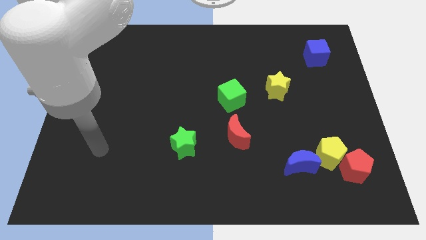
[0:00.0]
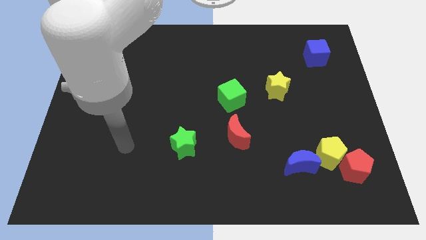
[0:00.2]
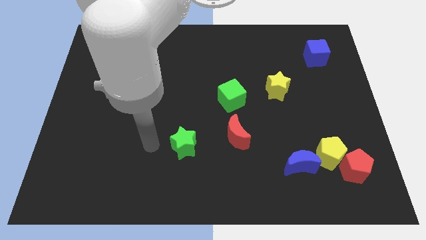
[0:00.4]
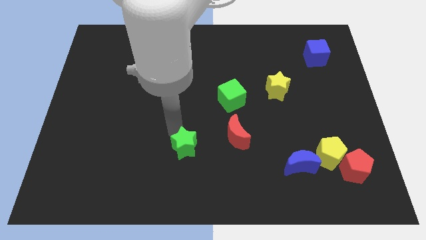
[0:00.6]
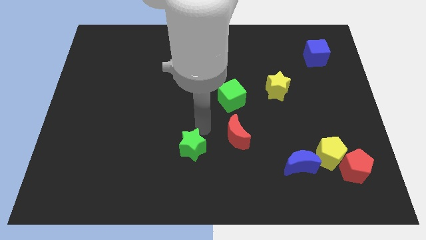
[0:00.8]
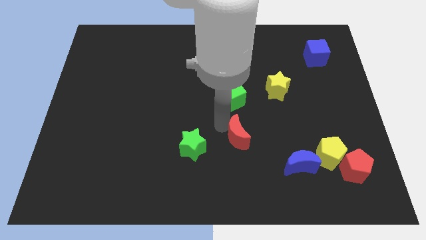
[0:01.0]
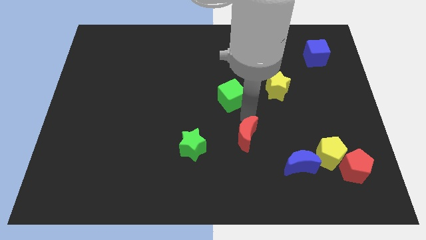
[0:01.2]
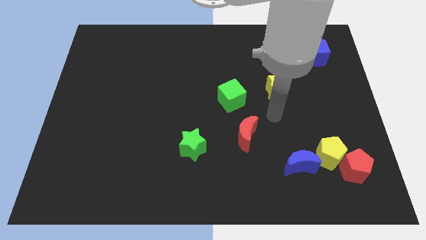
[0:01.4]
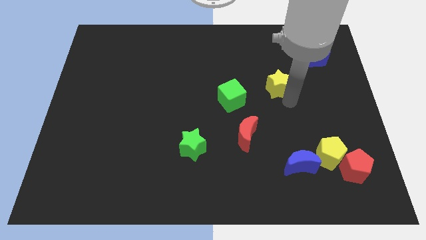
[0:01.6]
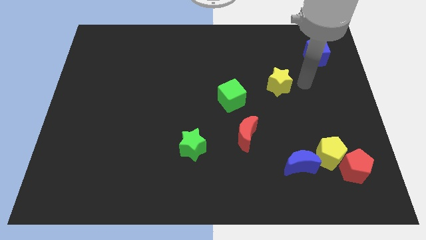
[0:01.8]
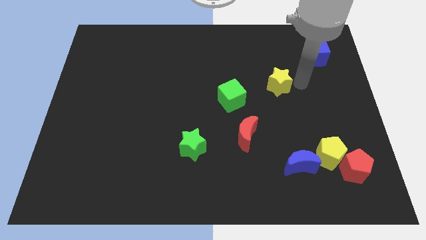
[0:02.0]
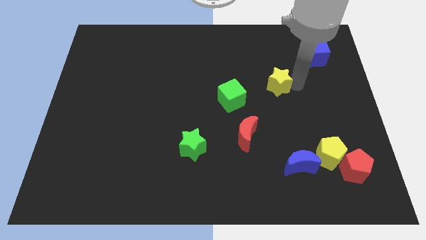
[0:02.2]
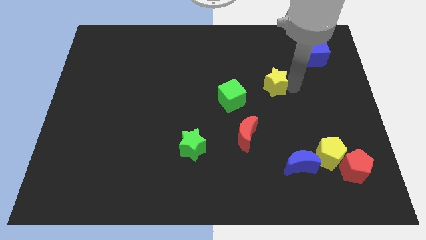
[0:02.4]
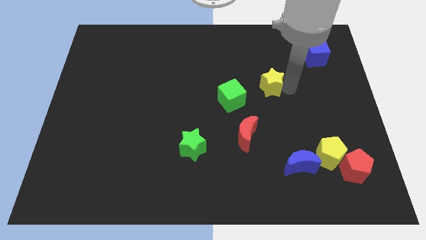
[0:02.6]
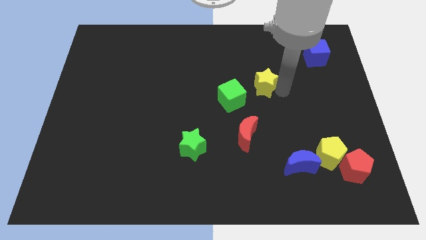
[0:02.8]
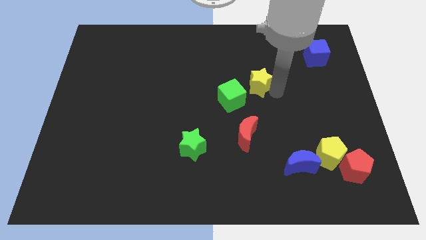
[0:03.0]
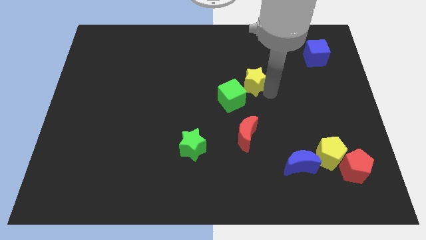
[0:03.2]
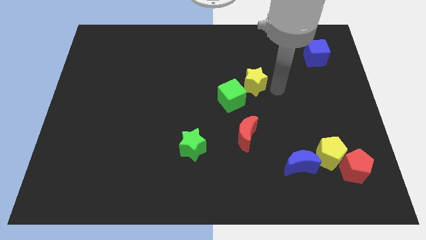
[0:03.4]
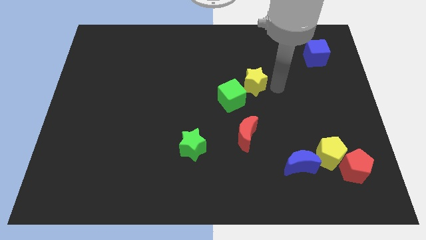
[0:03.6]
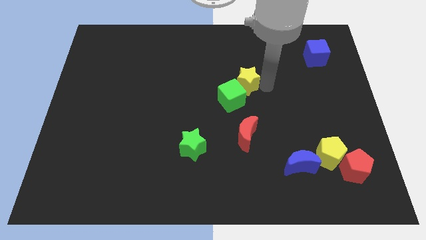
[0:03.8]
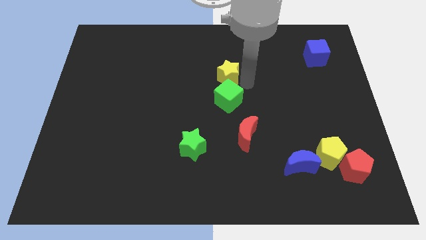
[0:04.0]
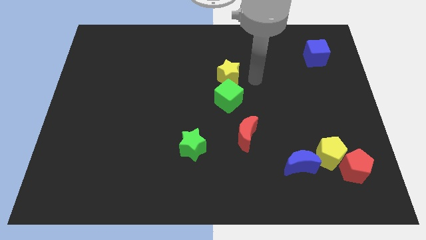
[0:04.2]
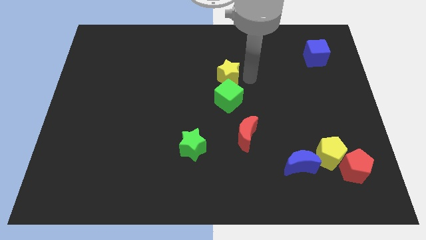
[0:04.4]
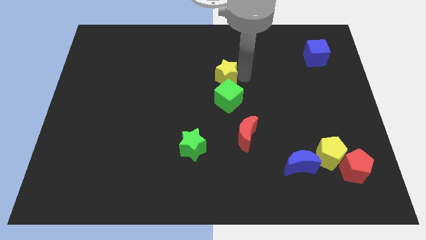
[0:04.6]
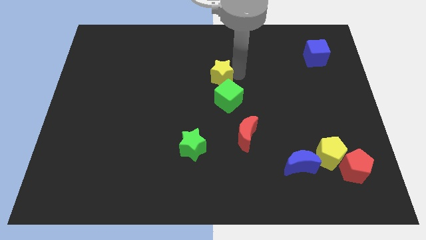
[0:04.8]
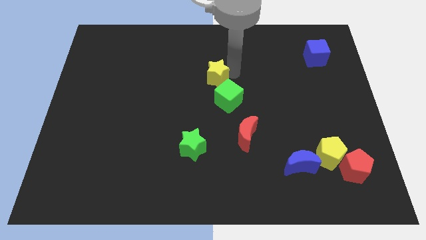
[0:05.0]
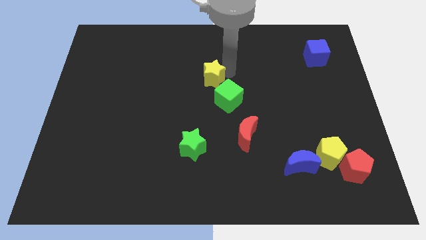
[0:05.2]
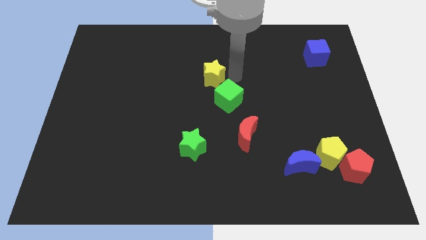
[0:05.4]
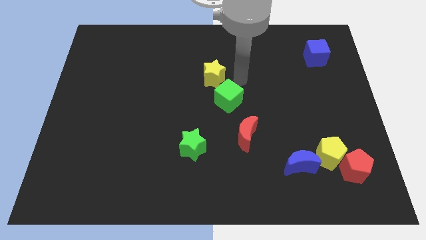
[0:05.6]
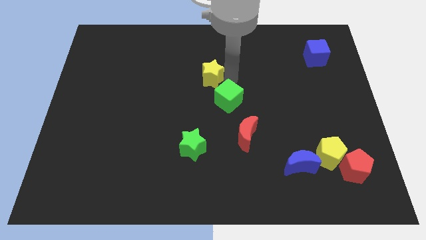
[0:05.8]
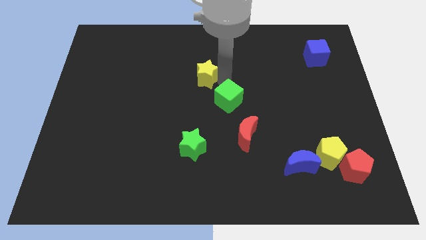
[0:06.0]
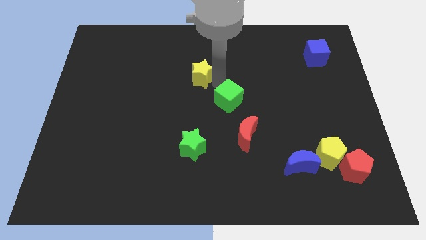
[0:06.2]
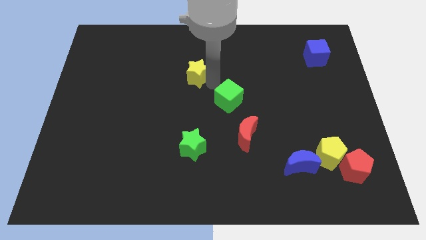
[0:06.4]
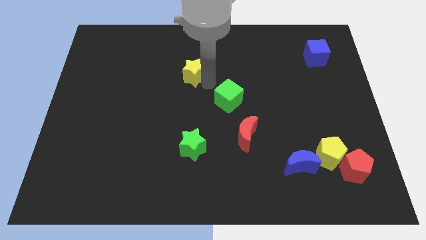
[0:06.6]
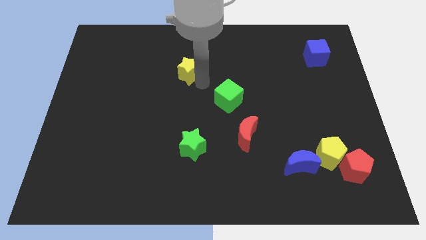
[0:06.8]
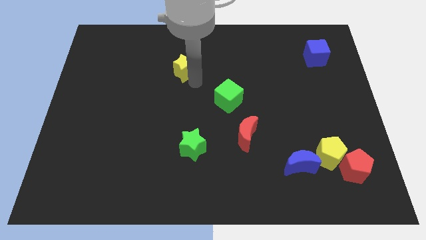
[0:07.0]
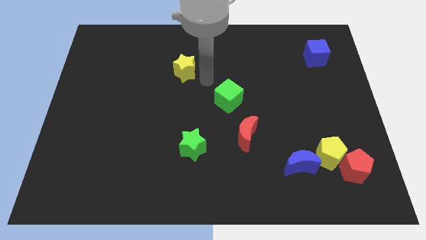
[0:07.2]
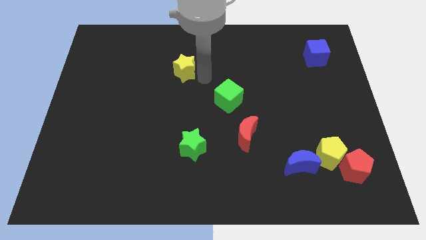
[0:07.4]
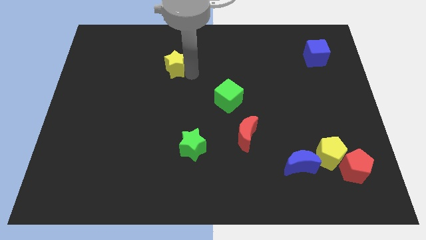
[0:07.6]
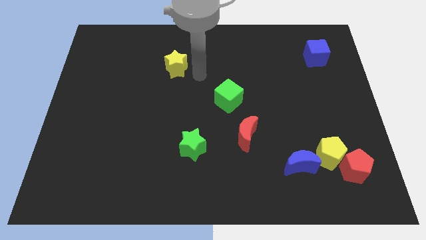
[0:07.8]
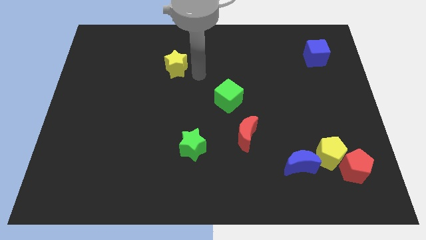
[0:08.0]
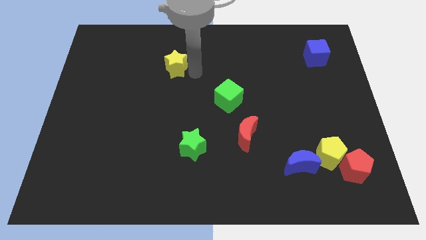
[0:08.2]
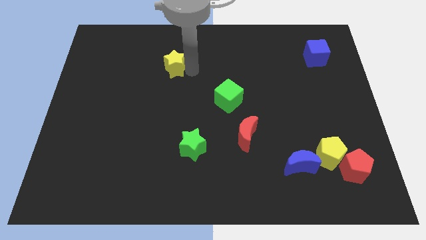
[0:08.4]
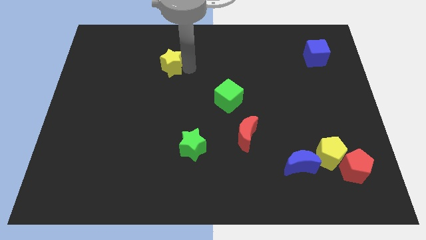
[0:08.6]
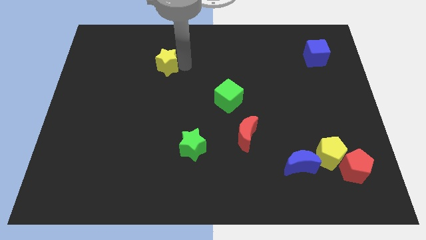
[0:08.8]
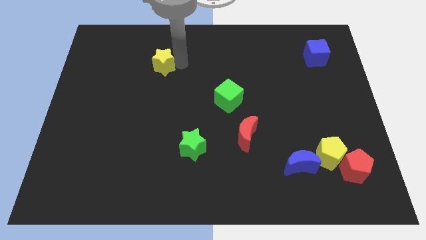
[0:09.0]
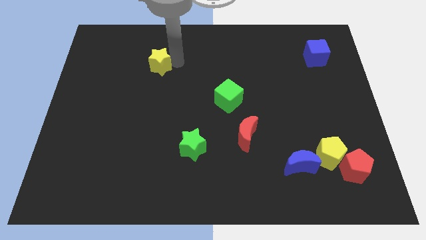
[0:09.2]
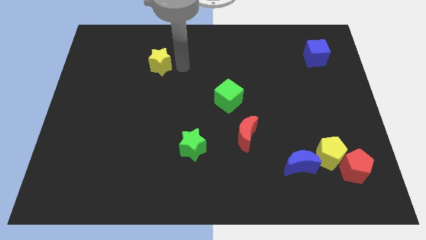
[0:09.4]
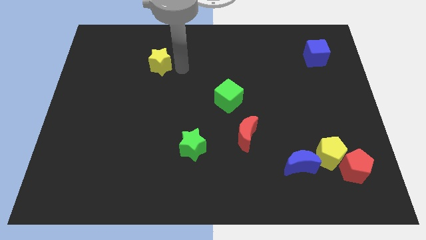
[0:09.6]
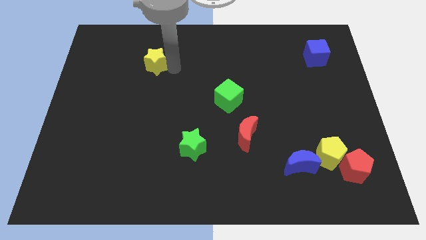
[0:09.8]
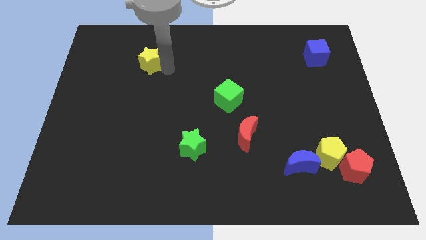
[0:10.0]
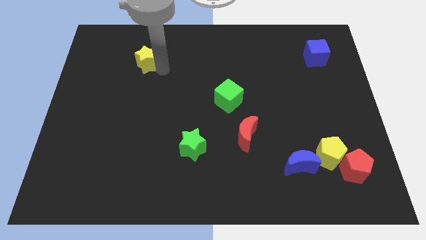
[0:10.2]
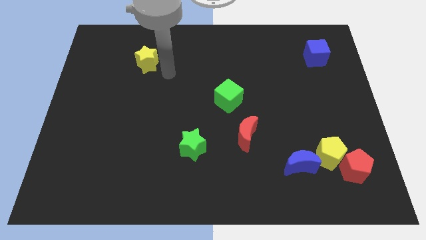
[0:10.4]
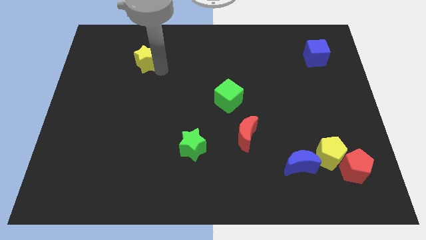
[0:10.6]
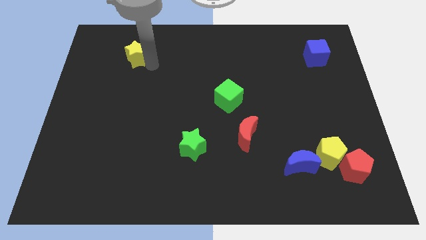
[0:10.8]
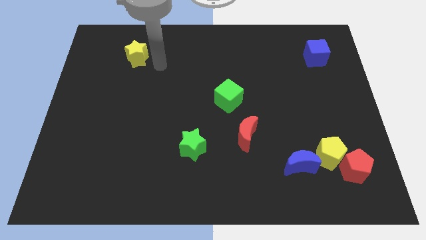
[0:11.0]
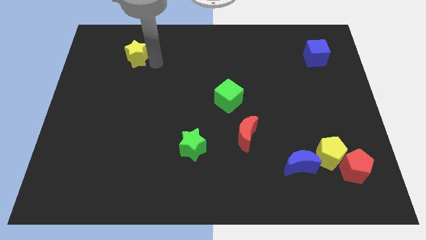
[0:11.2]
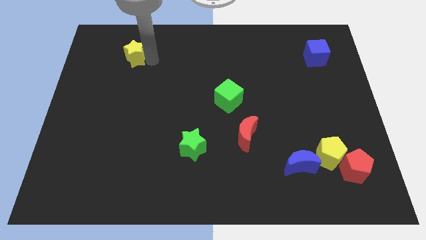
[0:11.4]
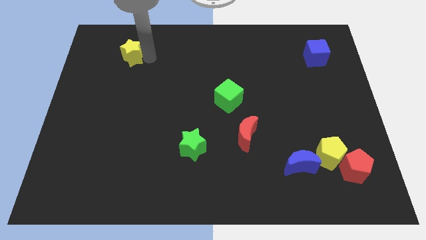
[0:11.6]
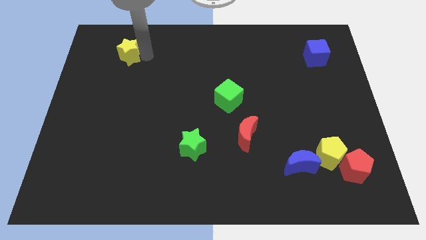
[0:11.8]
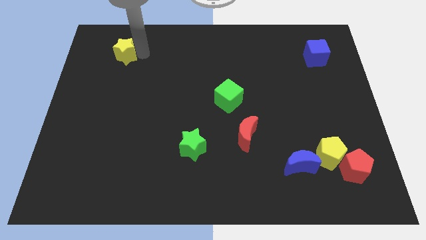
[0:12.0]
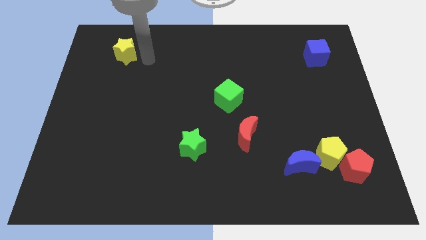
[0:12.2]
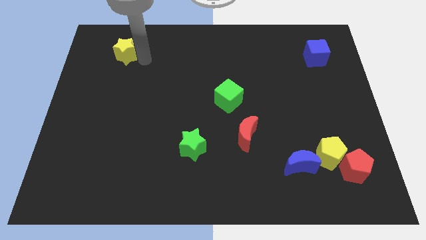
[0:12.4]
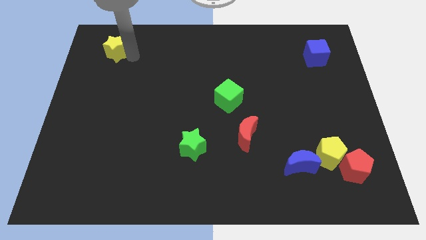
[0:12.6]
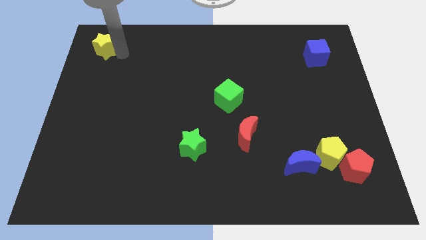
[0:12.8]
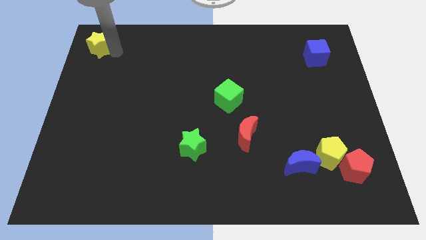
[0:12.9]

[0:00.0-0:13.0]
slide the yellow star to the top left corner
